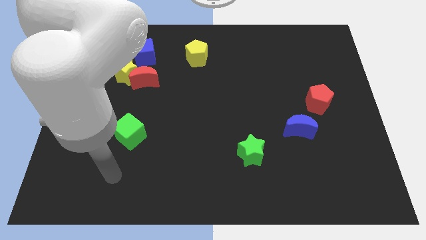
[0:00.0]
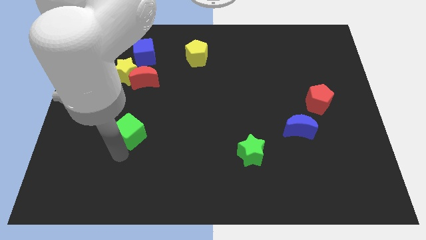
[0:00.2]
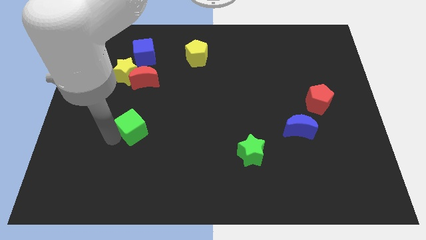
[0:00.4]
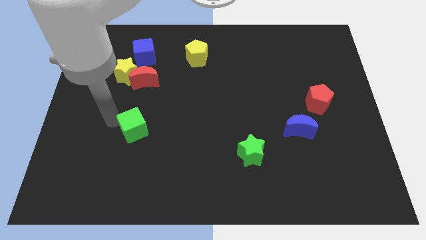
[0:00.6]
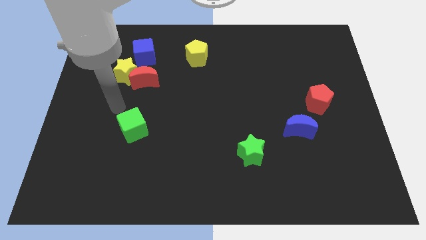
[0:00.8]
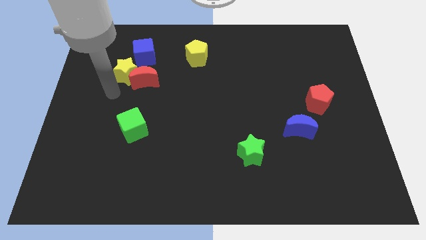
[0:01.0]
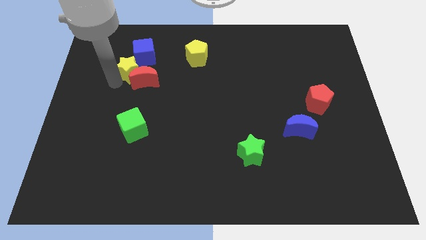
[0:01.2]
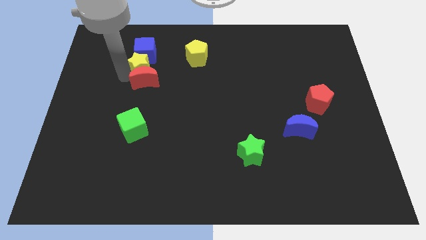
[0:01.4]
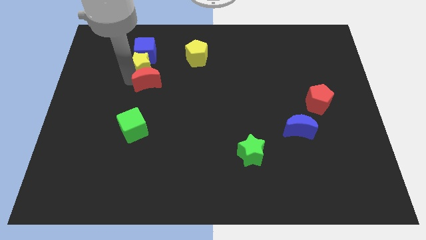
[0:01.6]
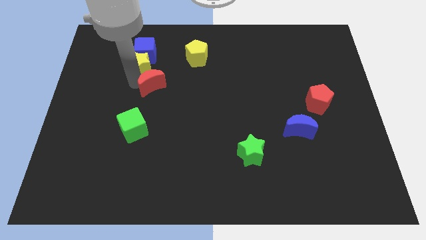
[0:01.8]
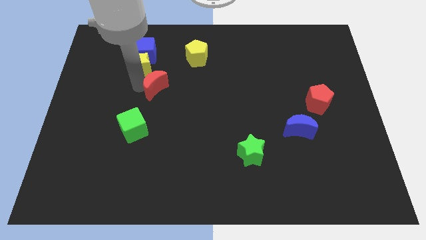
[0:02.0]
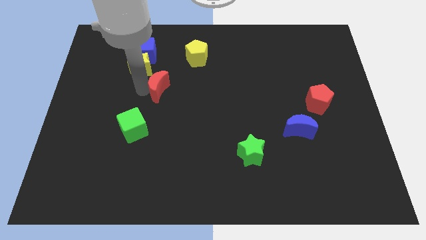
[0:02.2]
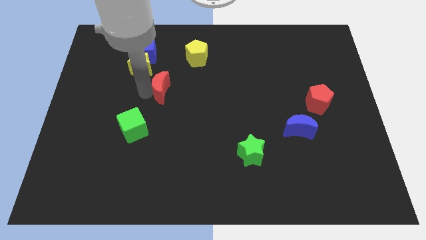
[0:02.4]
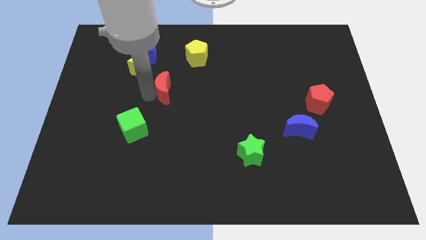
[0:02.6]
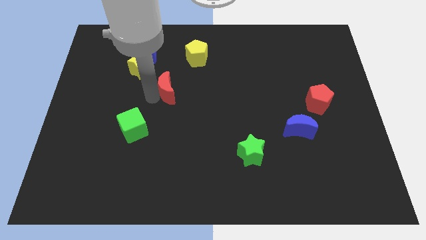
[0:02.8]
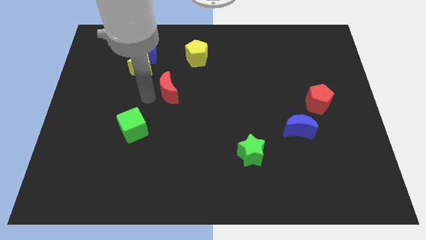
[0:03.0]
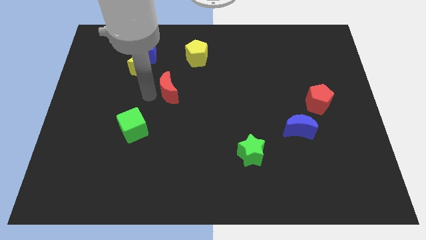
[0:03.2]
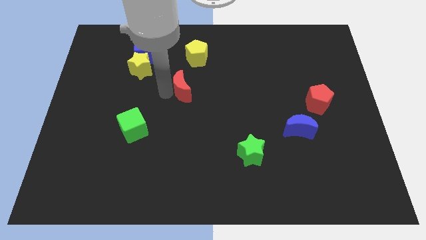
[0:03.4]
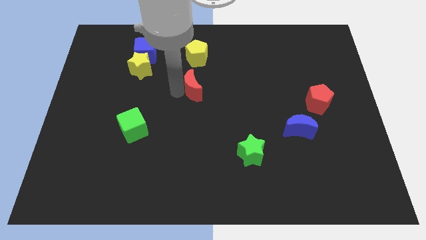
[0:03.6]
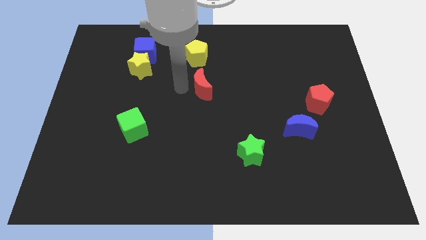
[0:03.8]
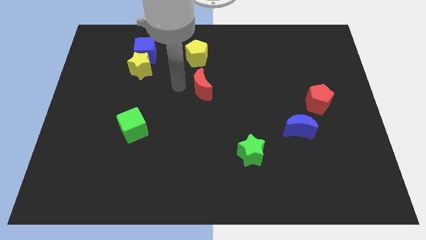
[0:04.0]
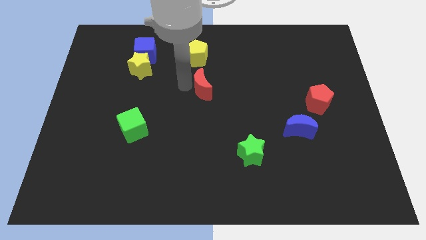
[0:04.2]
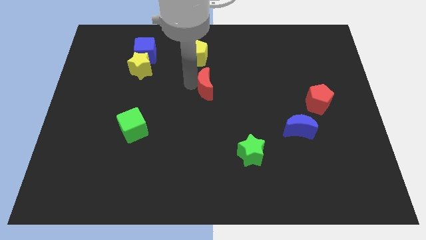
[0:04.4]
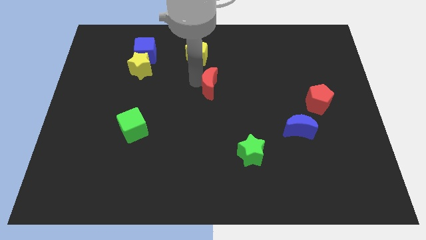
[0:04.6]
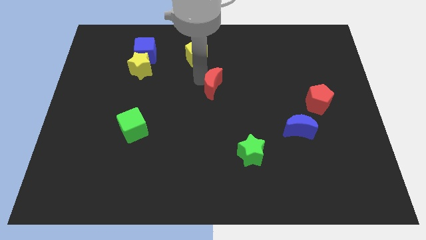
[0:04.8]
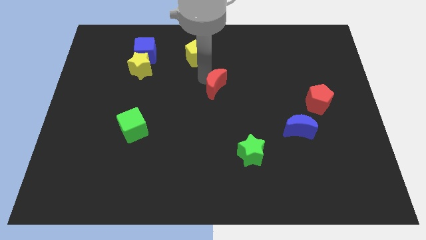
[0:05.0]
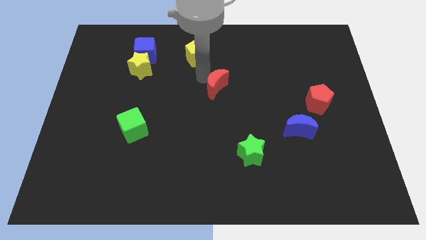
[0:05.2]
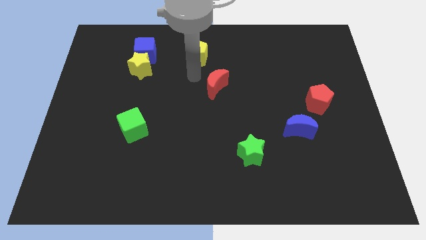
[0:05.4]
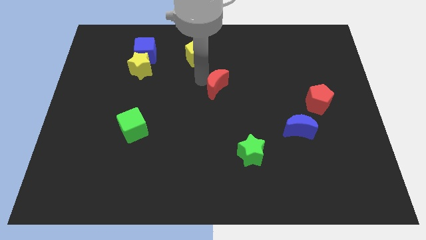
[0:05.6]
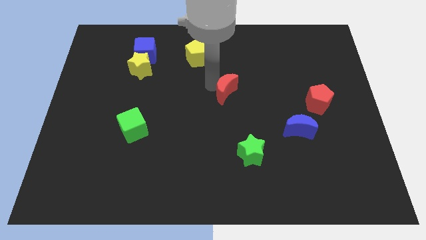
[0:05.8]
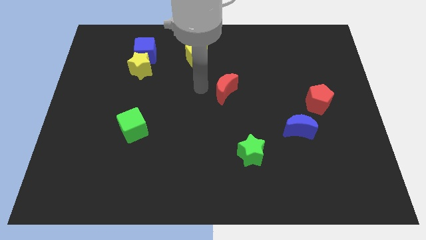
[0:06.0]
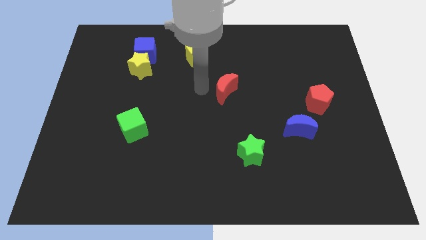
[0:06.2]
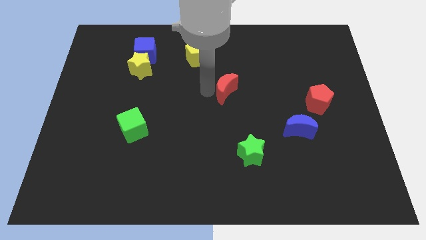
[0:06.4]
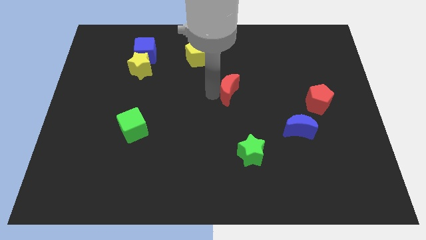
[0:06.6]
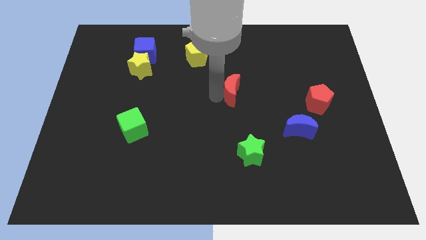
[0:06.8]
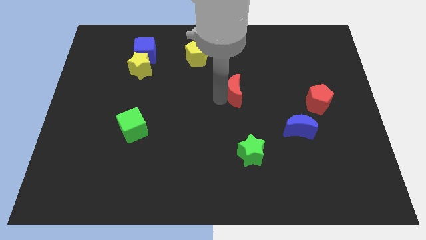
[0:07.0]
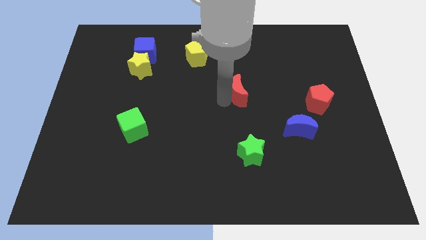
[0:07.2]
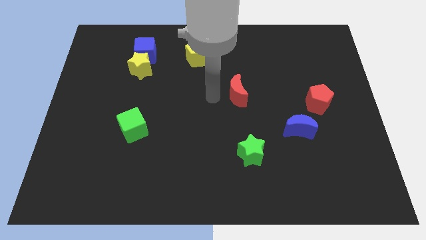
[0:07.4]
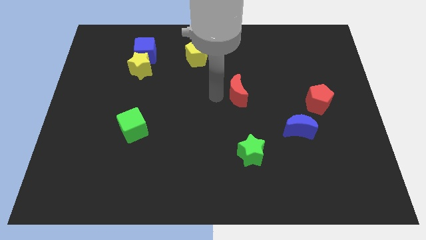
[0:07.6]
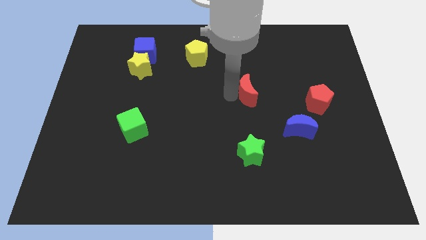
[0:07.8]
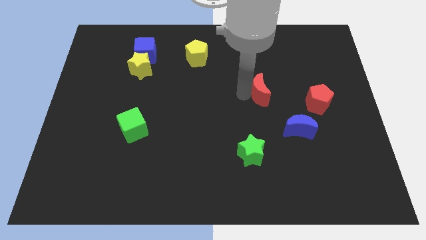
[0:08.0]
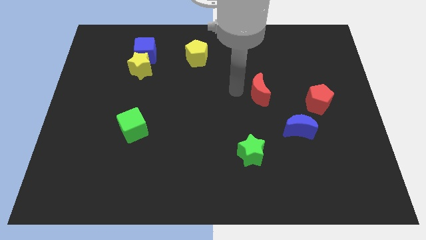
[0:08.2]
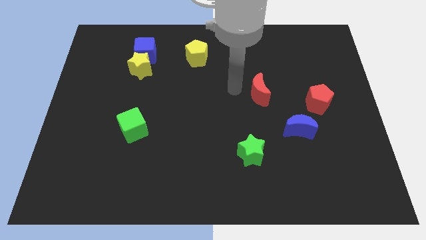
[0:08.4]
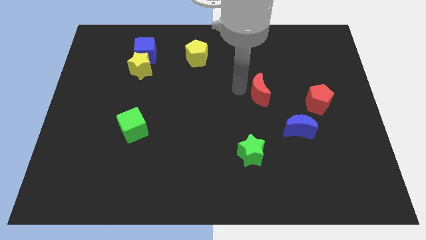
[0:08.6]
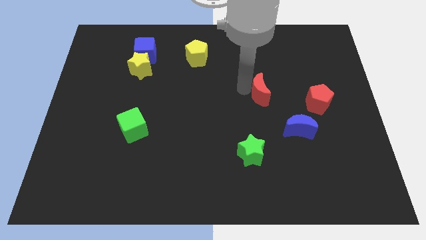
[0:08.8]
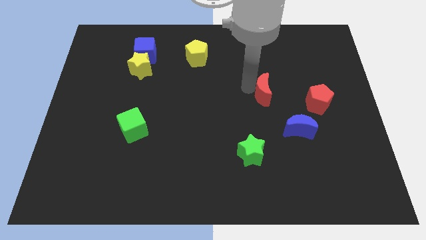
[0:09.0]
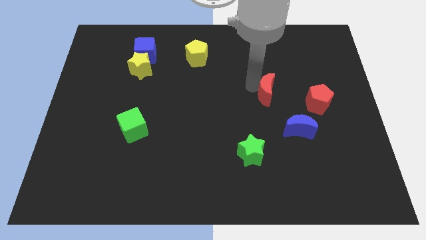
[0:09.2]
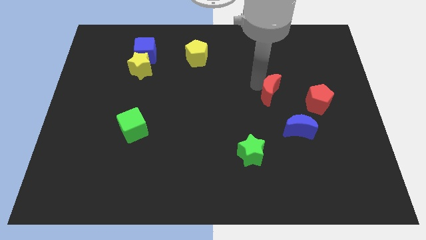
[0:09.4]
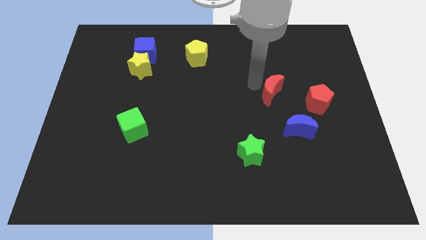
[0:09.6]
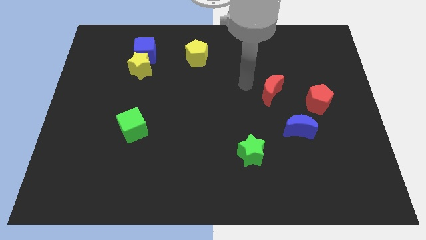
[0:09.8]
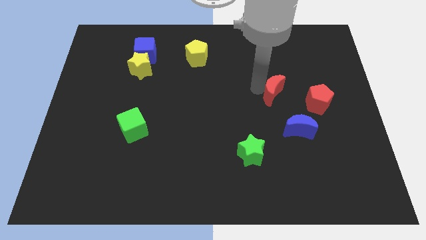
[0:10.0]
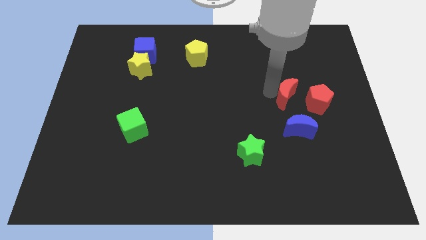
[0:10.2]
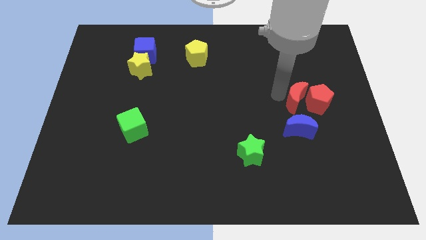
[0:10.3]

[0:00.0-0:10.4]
push the red moon to the red pentagon

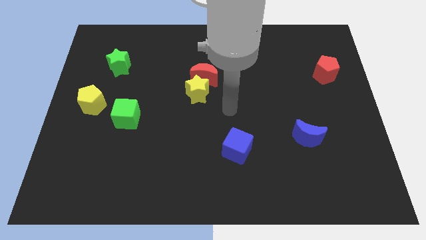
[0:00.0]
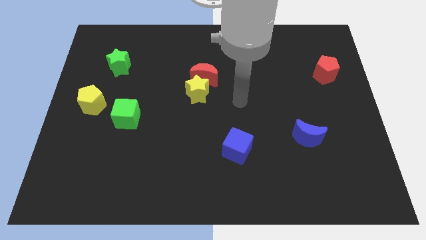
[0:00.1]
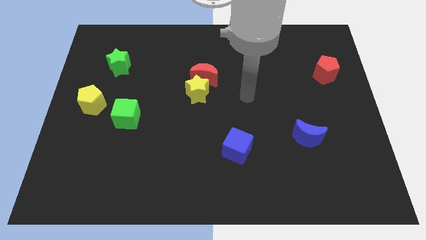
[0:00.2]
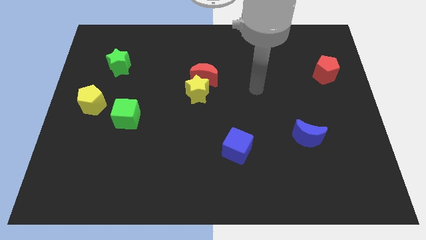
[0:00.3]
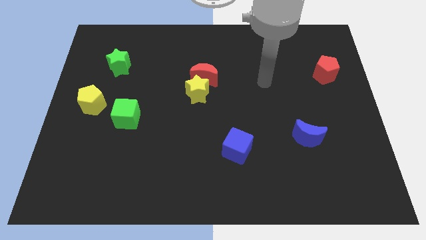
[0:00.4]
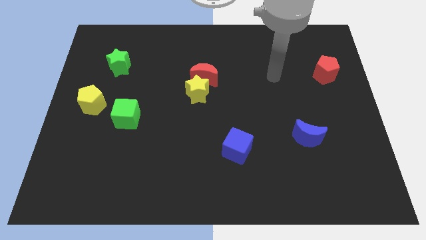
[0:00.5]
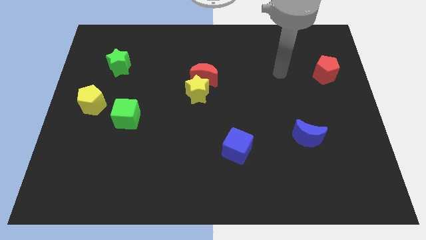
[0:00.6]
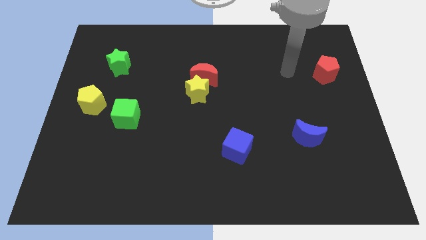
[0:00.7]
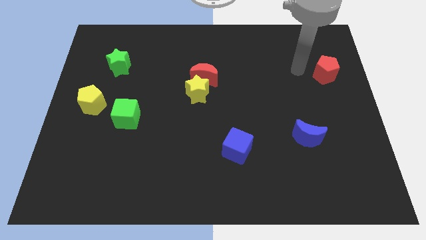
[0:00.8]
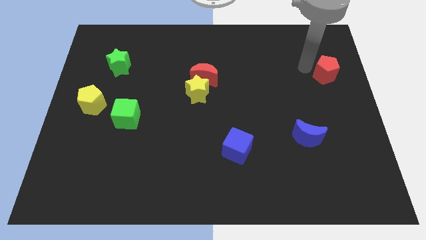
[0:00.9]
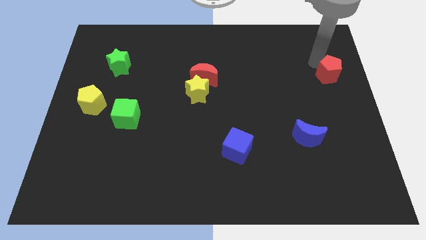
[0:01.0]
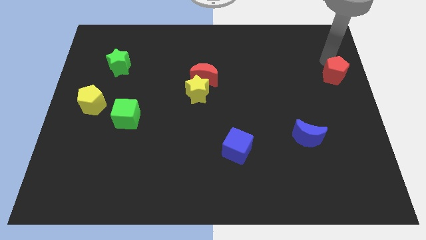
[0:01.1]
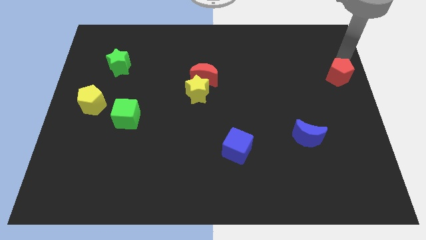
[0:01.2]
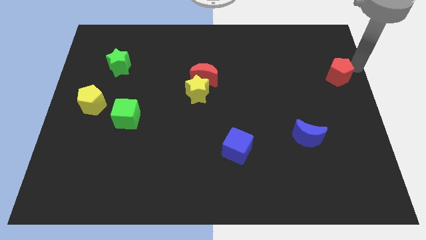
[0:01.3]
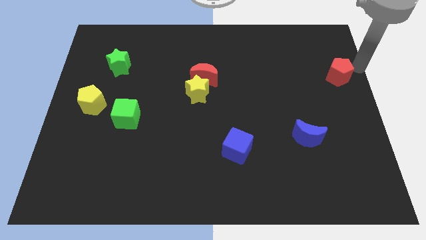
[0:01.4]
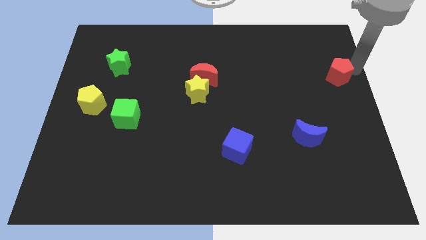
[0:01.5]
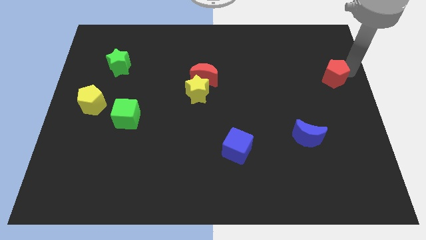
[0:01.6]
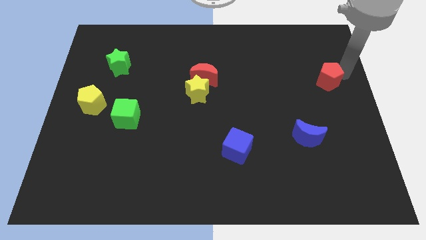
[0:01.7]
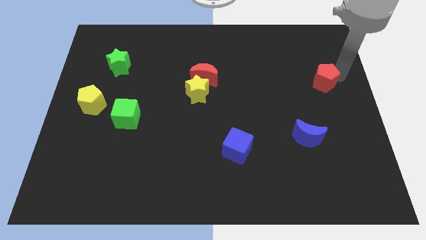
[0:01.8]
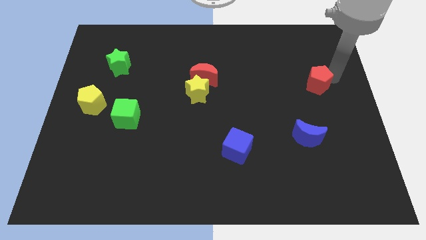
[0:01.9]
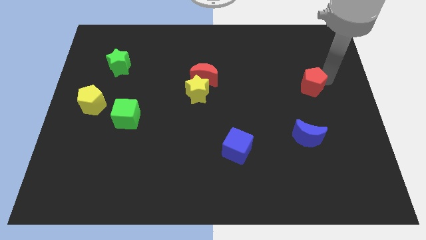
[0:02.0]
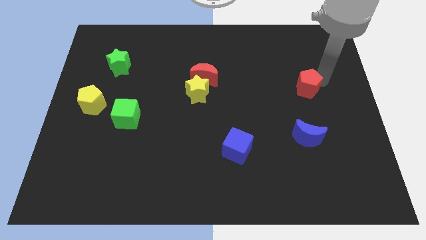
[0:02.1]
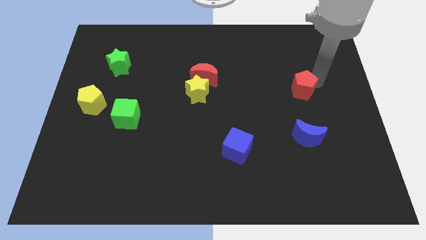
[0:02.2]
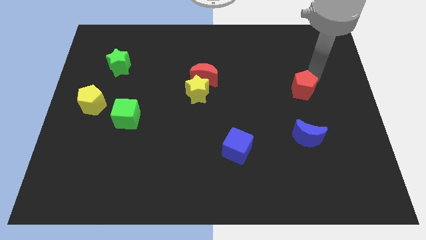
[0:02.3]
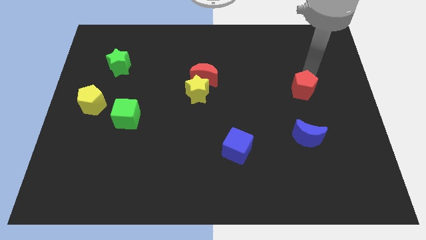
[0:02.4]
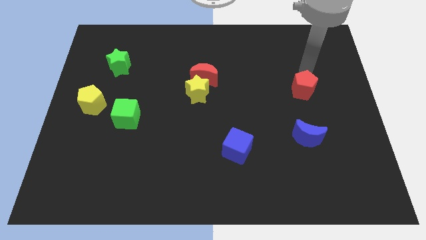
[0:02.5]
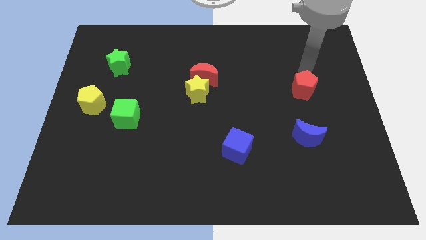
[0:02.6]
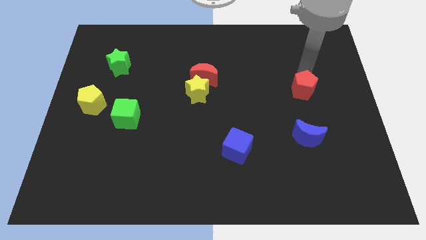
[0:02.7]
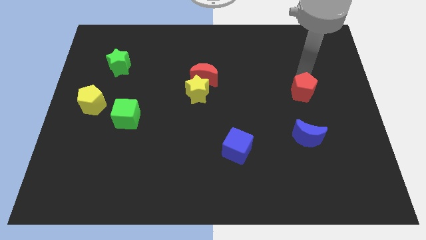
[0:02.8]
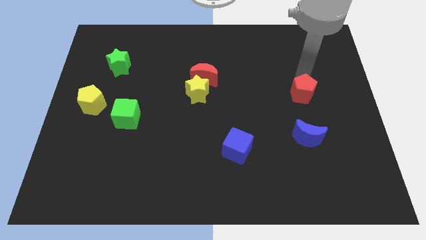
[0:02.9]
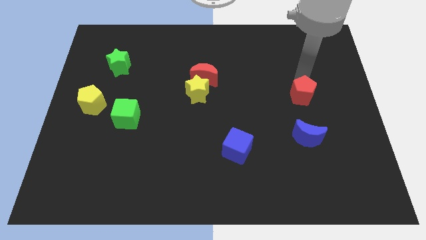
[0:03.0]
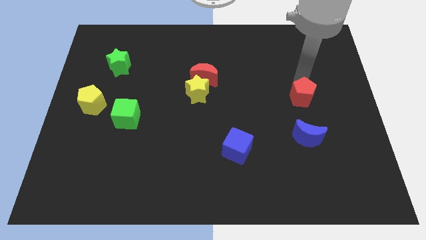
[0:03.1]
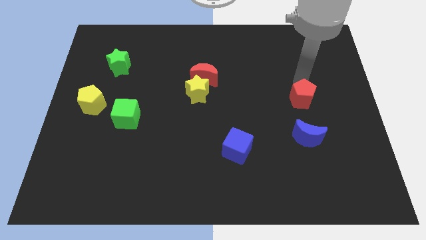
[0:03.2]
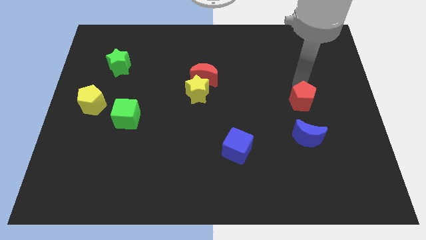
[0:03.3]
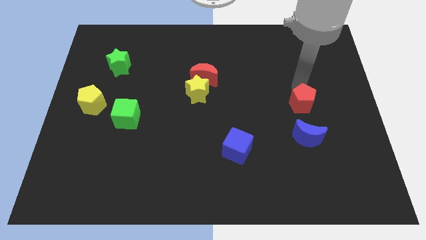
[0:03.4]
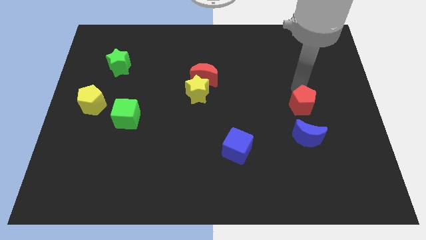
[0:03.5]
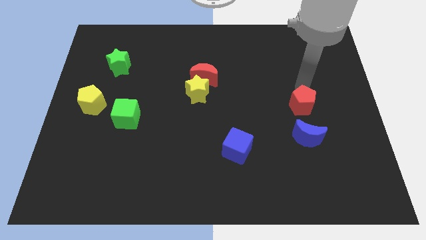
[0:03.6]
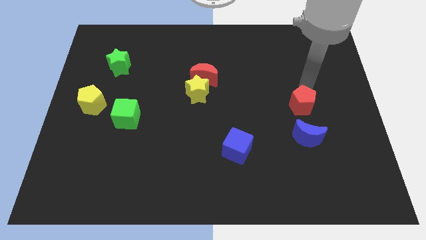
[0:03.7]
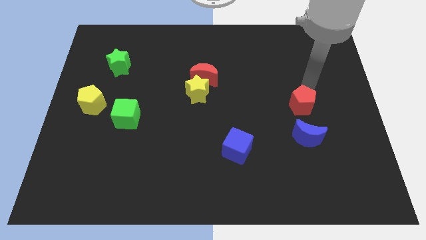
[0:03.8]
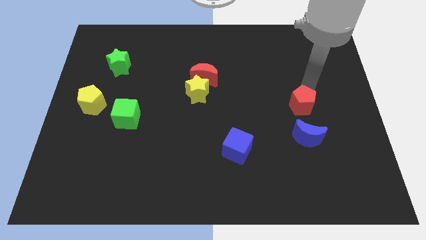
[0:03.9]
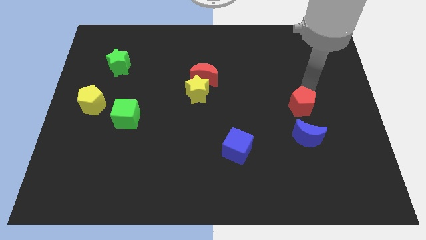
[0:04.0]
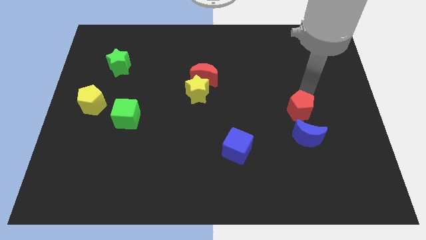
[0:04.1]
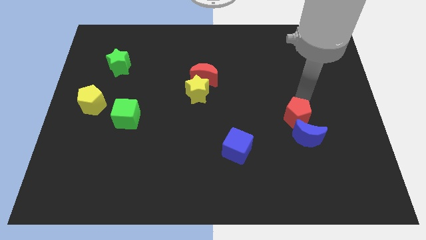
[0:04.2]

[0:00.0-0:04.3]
put the red pentagon next to the blue moon
